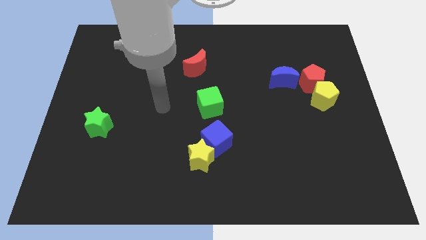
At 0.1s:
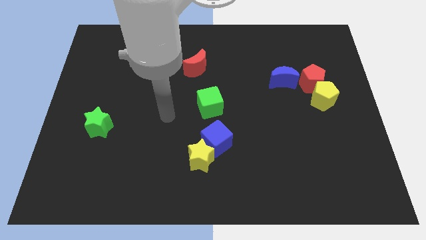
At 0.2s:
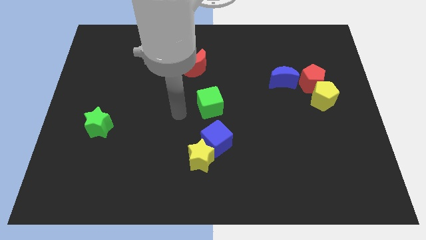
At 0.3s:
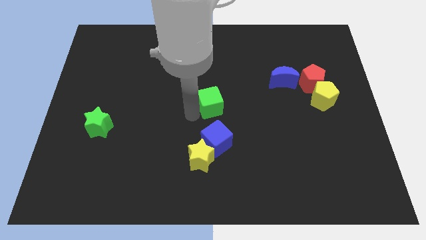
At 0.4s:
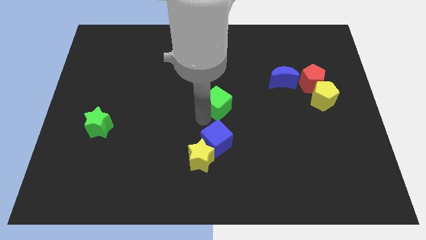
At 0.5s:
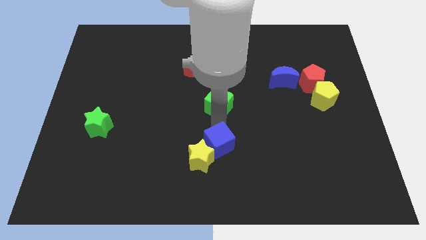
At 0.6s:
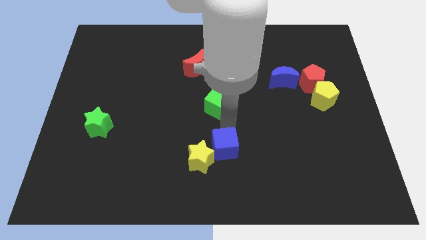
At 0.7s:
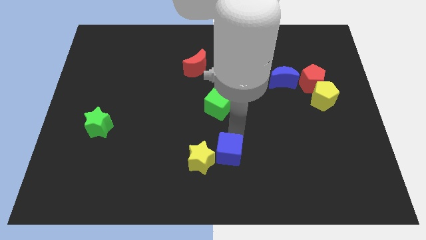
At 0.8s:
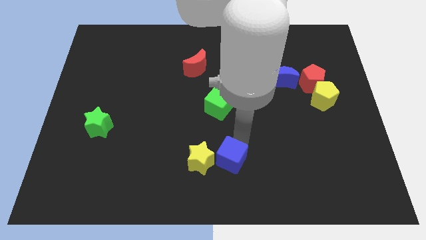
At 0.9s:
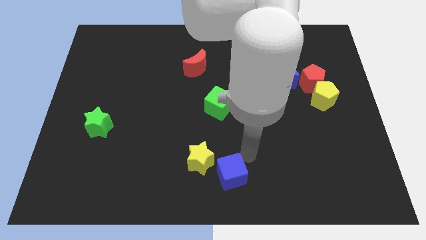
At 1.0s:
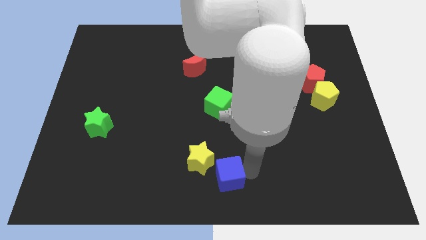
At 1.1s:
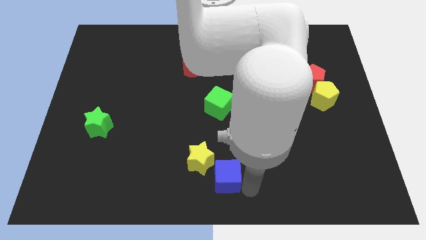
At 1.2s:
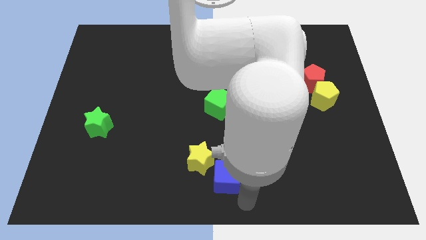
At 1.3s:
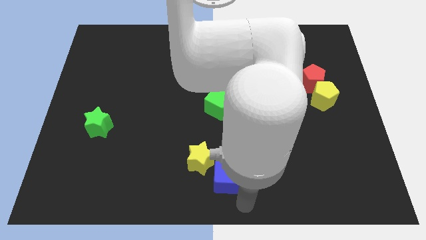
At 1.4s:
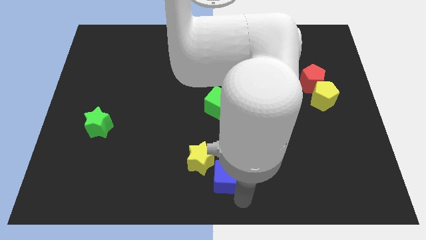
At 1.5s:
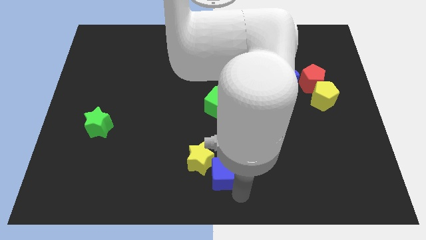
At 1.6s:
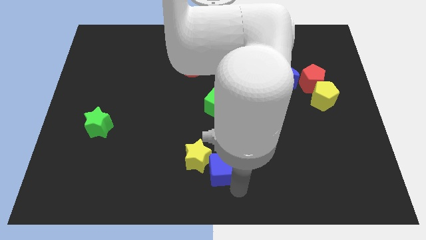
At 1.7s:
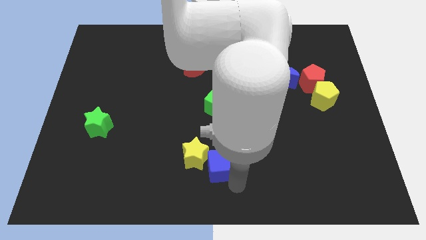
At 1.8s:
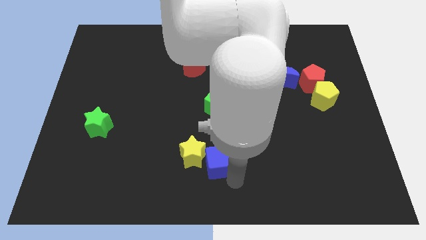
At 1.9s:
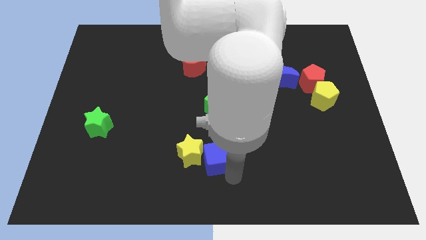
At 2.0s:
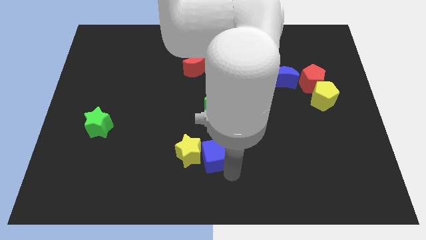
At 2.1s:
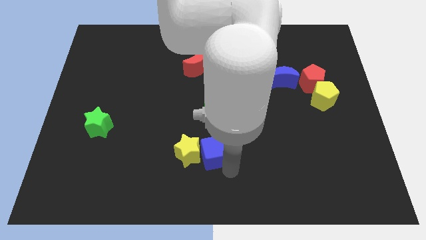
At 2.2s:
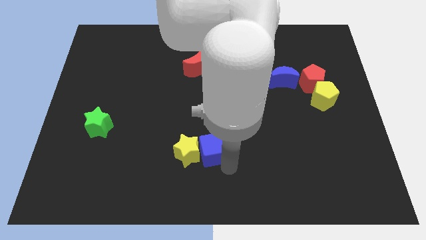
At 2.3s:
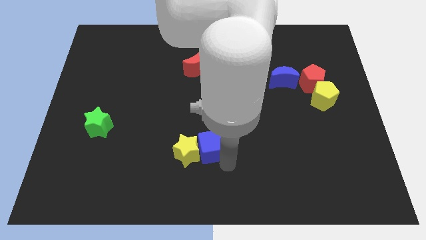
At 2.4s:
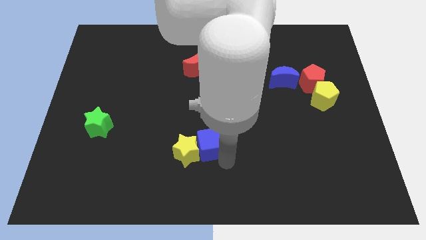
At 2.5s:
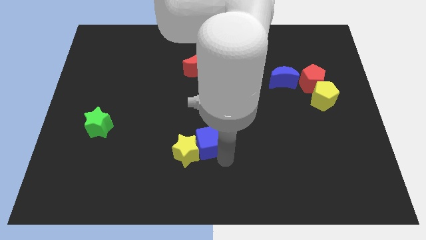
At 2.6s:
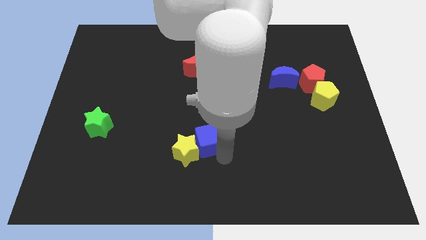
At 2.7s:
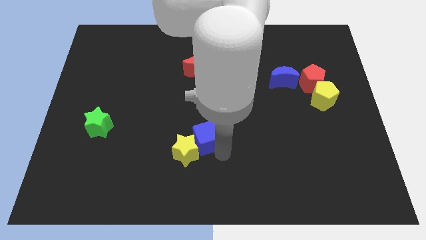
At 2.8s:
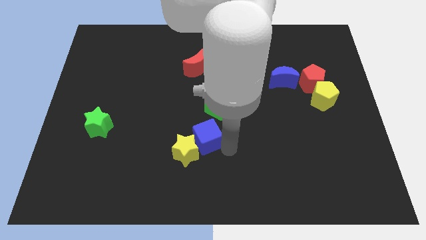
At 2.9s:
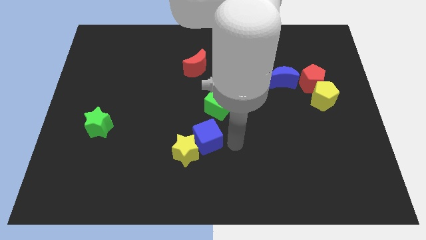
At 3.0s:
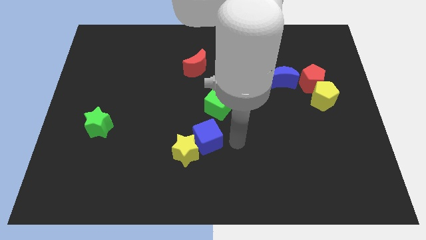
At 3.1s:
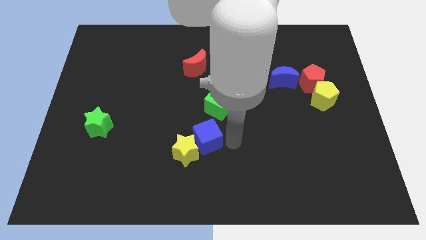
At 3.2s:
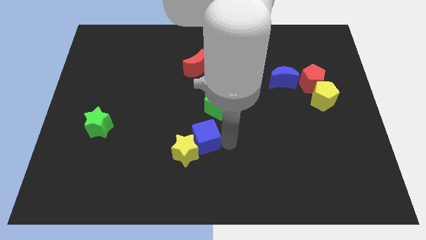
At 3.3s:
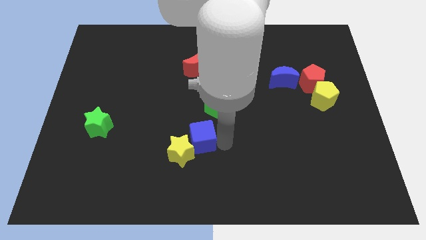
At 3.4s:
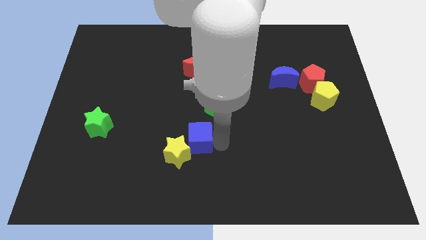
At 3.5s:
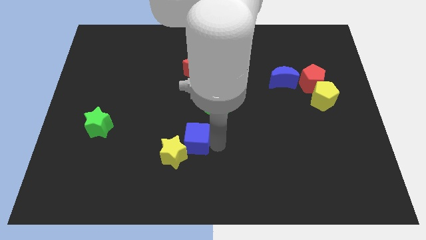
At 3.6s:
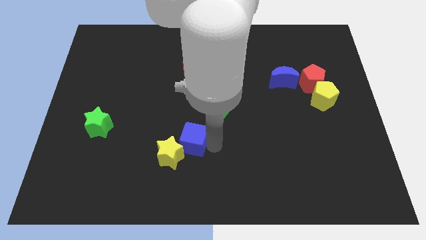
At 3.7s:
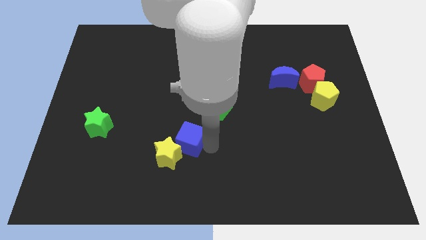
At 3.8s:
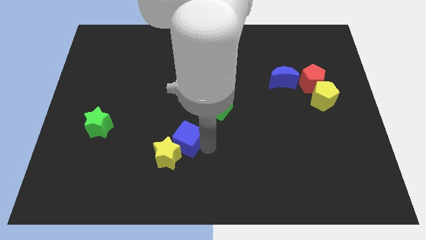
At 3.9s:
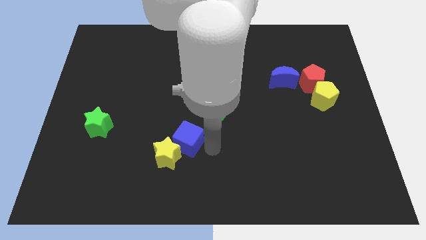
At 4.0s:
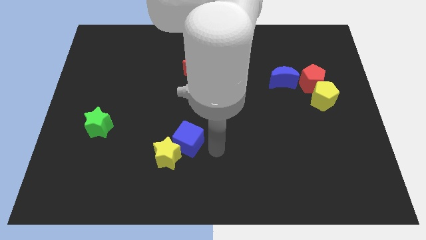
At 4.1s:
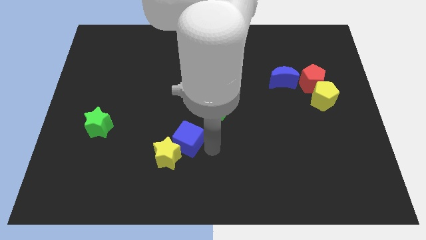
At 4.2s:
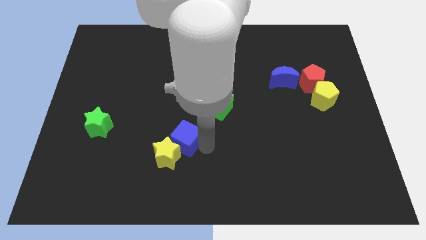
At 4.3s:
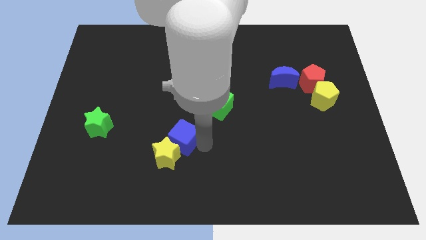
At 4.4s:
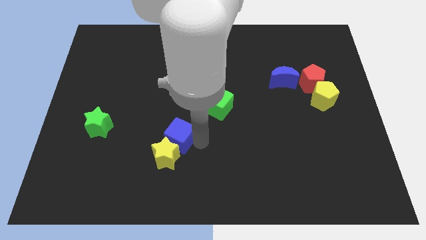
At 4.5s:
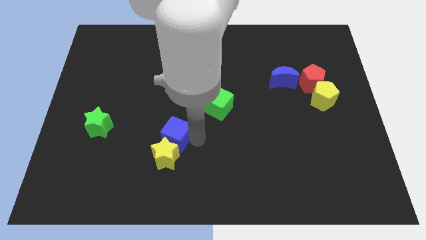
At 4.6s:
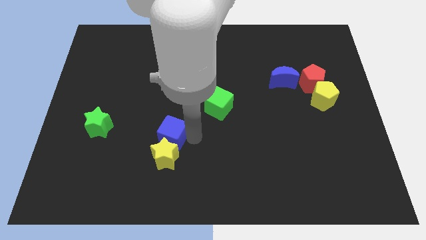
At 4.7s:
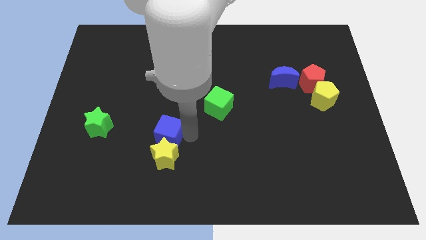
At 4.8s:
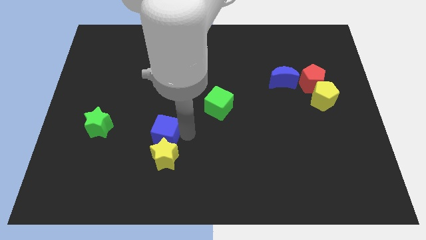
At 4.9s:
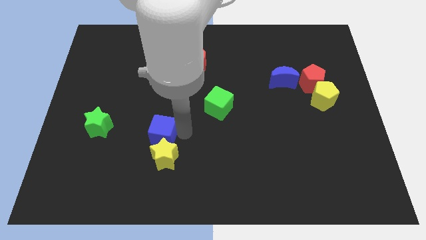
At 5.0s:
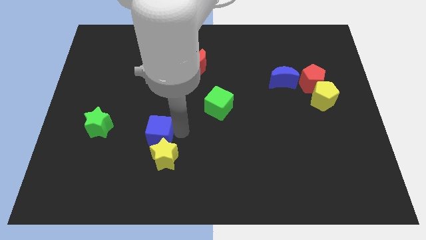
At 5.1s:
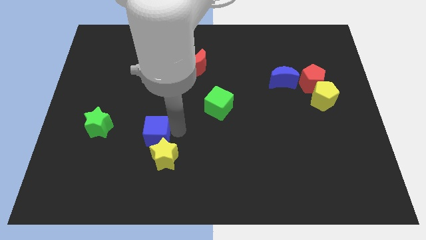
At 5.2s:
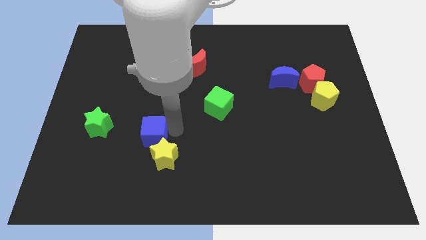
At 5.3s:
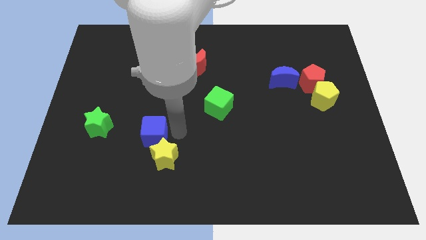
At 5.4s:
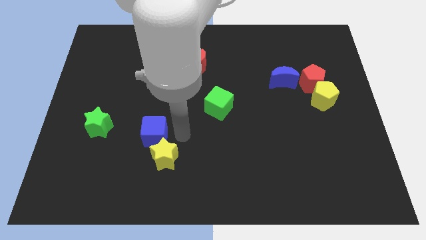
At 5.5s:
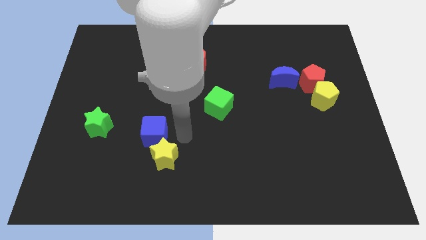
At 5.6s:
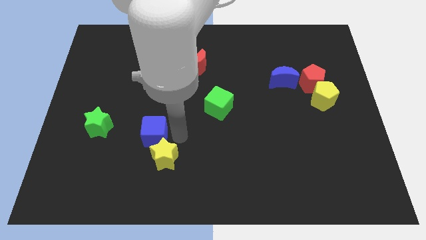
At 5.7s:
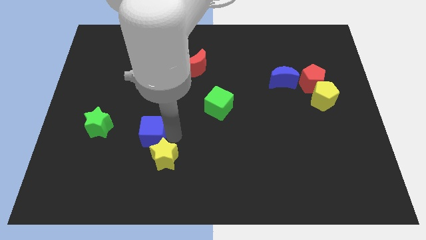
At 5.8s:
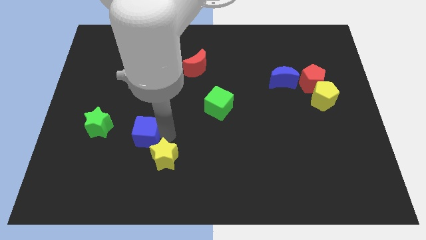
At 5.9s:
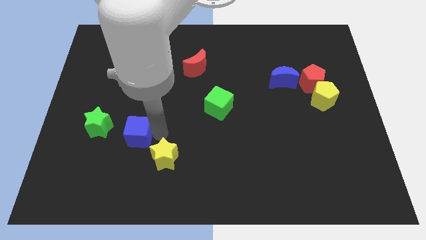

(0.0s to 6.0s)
slide the blue cube to the bottom right side of the green star
